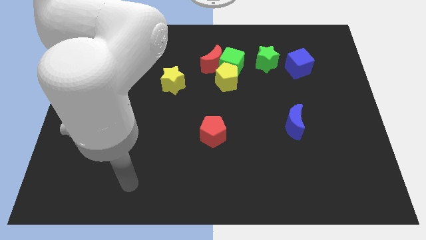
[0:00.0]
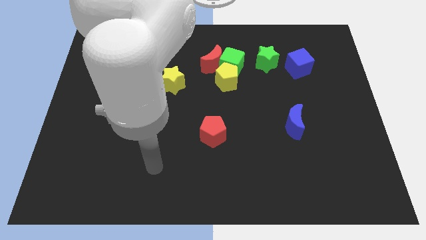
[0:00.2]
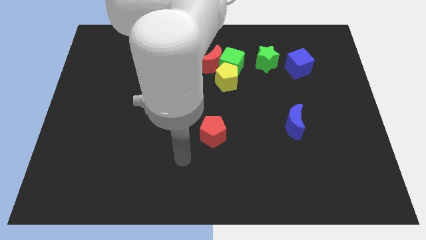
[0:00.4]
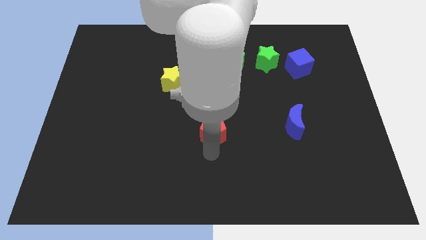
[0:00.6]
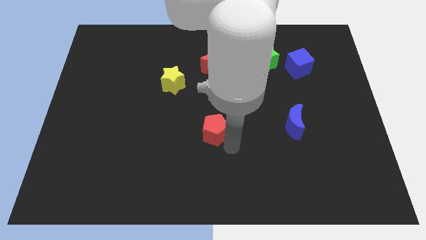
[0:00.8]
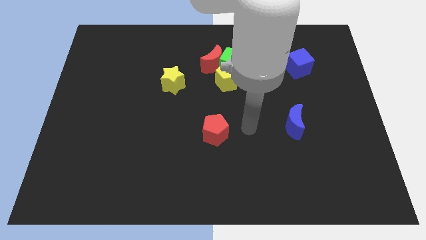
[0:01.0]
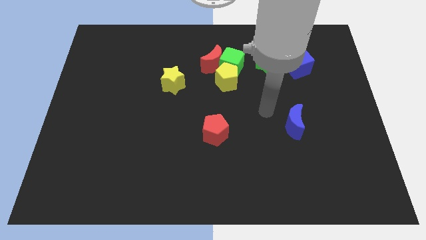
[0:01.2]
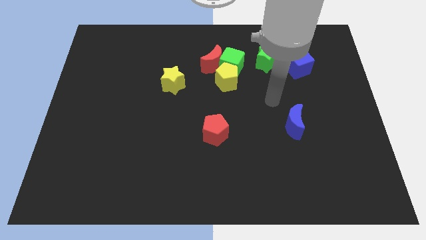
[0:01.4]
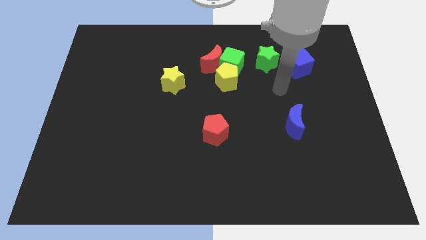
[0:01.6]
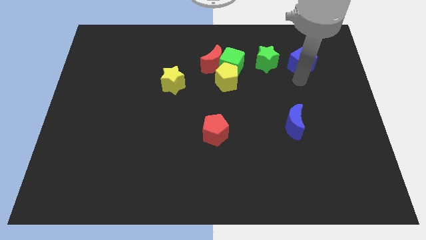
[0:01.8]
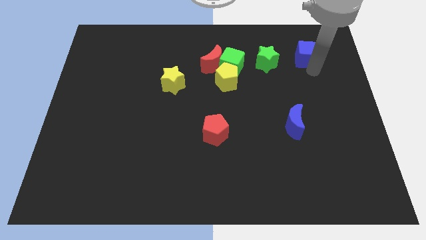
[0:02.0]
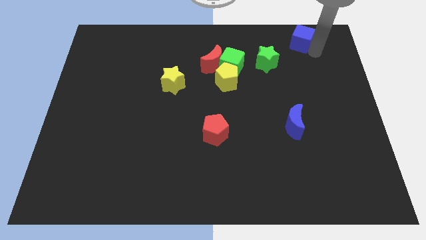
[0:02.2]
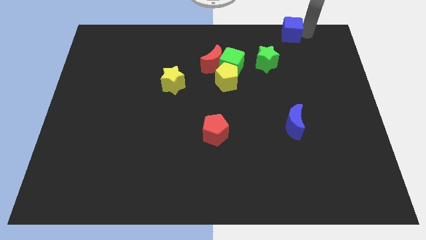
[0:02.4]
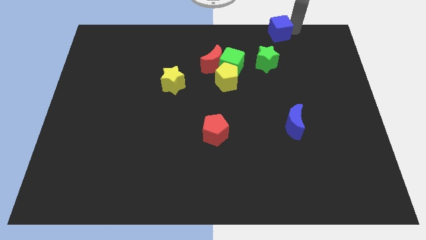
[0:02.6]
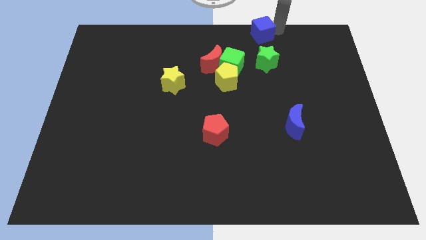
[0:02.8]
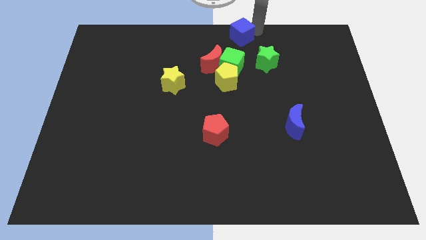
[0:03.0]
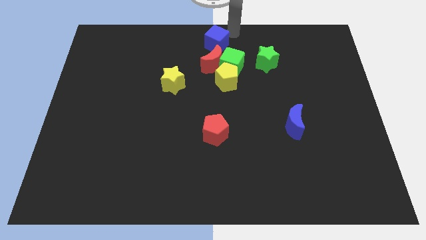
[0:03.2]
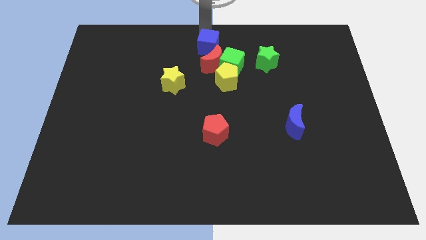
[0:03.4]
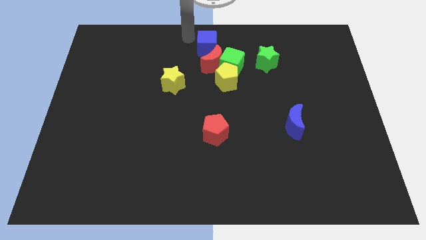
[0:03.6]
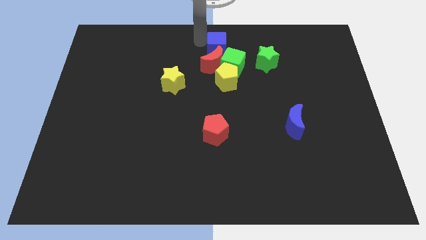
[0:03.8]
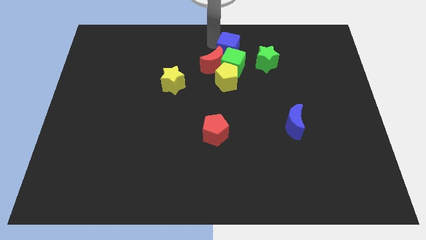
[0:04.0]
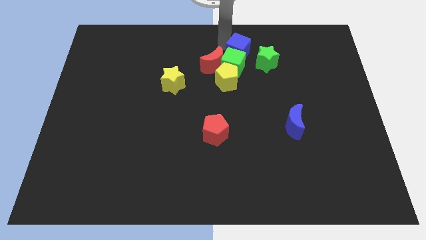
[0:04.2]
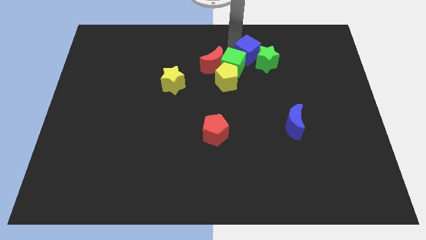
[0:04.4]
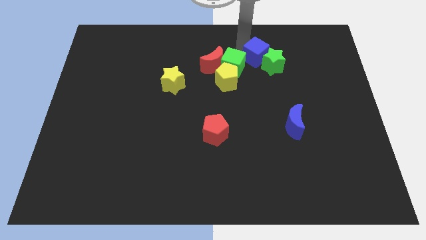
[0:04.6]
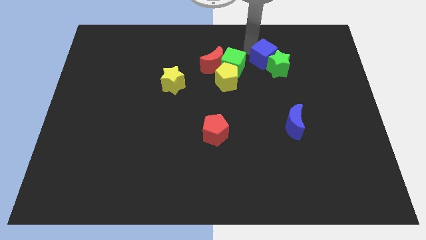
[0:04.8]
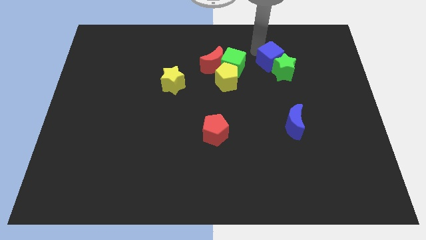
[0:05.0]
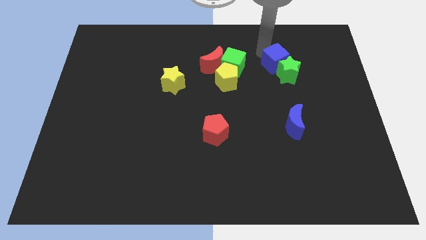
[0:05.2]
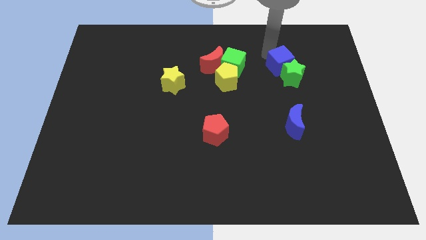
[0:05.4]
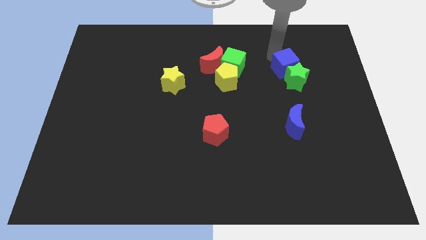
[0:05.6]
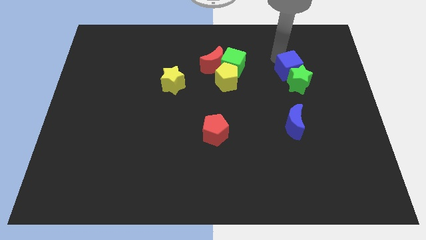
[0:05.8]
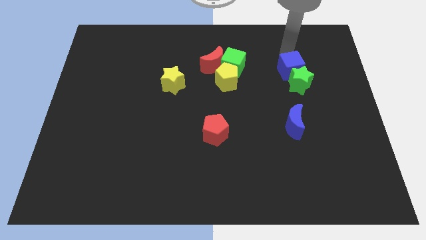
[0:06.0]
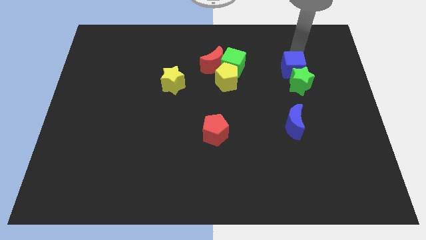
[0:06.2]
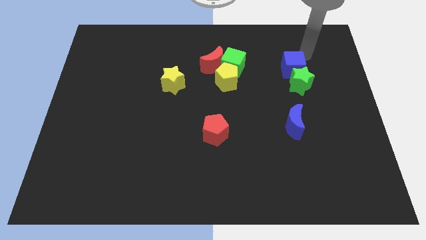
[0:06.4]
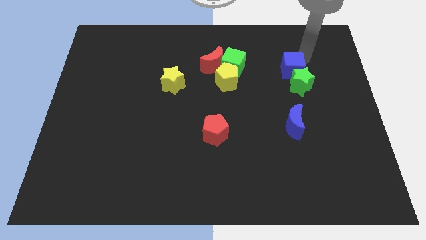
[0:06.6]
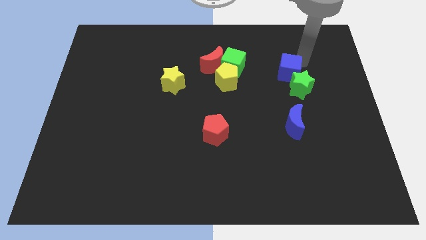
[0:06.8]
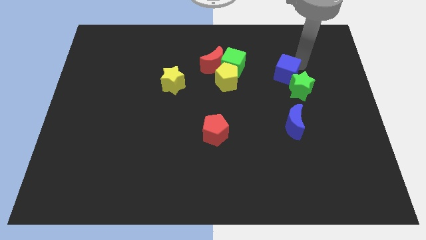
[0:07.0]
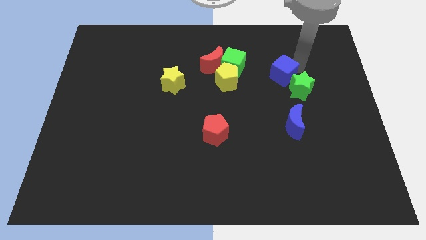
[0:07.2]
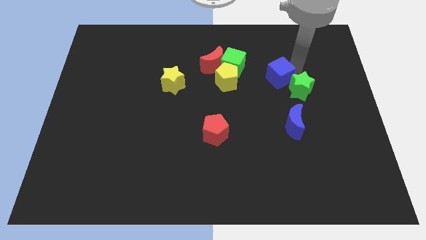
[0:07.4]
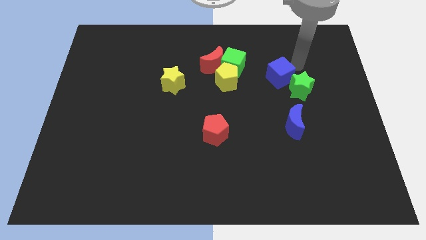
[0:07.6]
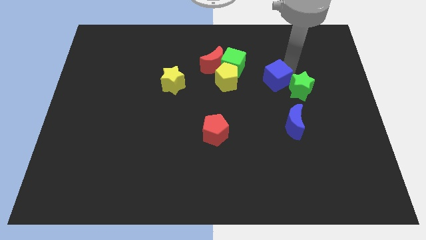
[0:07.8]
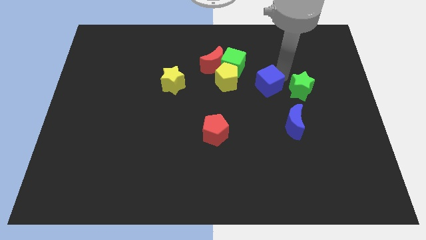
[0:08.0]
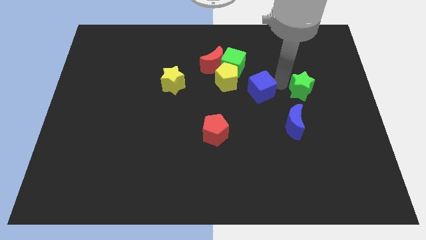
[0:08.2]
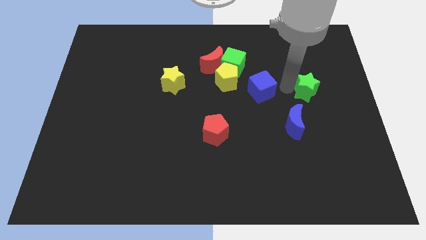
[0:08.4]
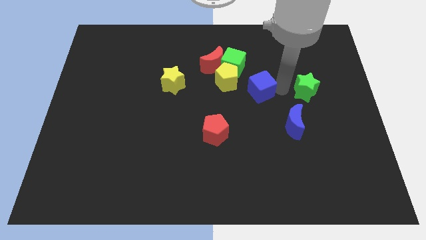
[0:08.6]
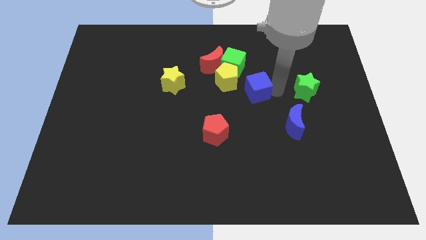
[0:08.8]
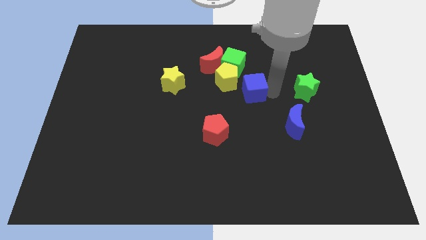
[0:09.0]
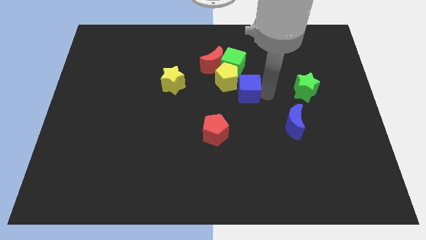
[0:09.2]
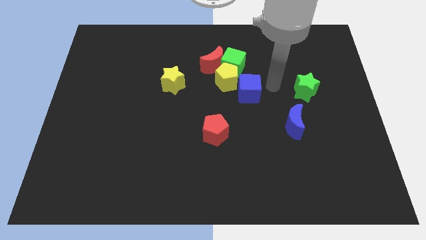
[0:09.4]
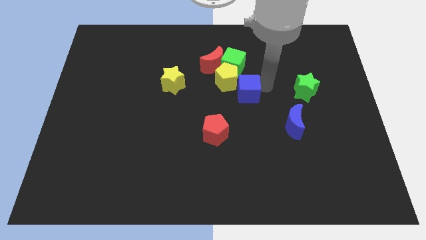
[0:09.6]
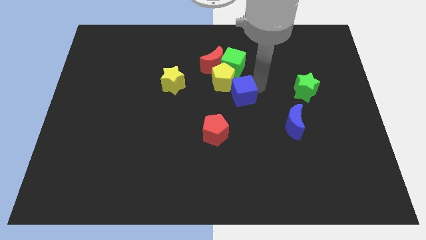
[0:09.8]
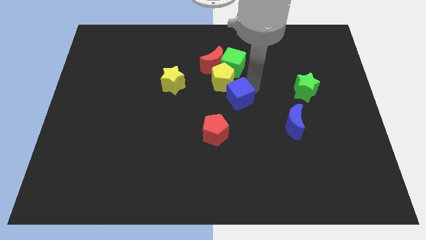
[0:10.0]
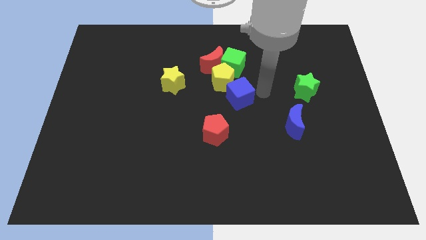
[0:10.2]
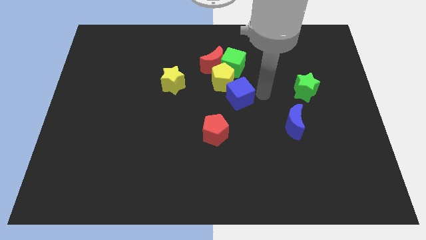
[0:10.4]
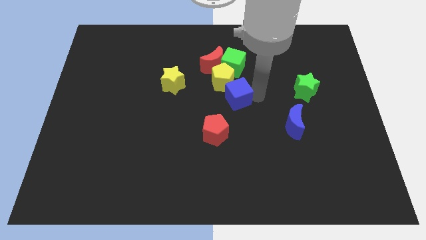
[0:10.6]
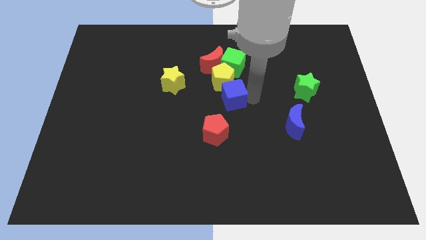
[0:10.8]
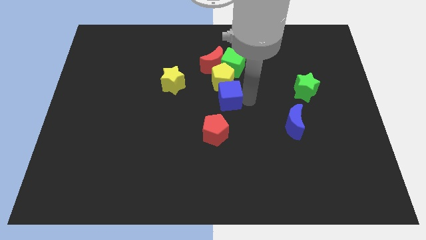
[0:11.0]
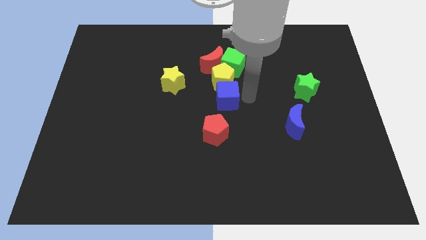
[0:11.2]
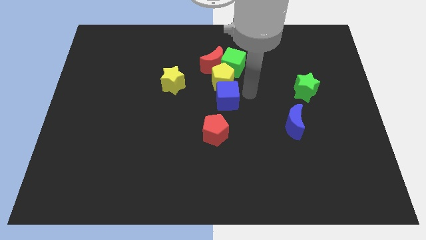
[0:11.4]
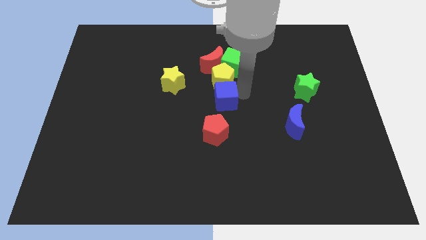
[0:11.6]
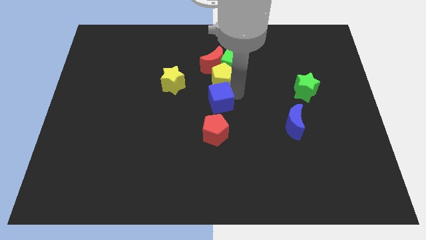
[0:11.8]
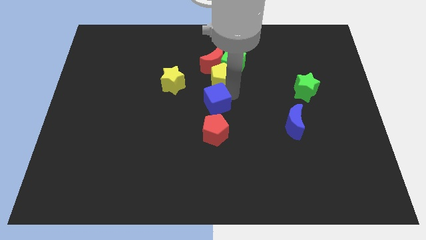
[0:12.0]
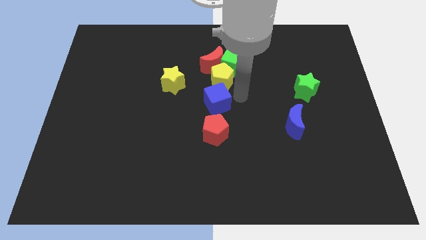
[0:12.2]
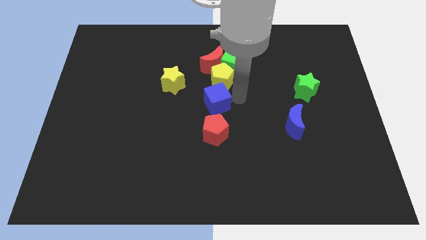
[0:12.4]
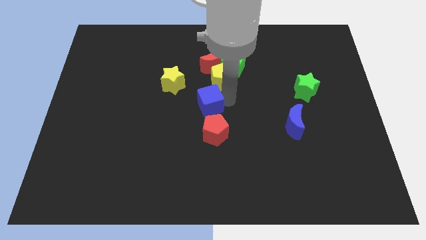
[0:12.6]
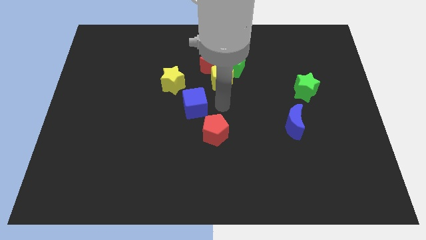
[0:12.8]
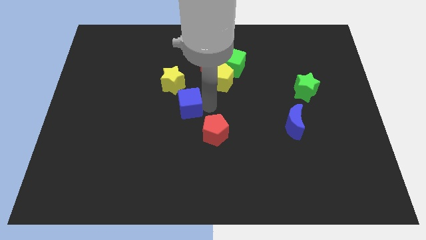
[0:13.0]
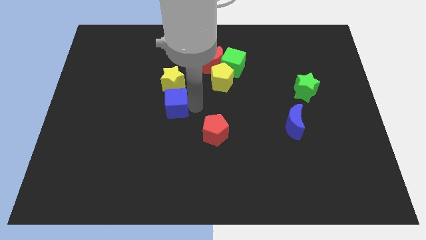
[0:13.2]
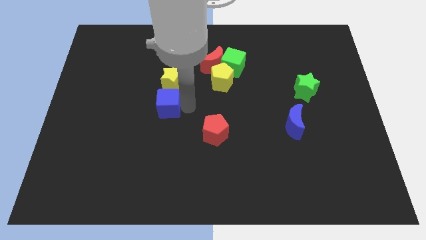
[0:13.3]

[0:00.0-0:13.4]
move the blue cube to the bottom left side of the yellow star

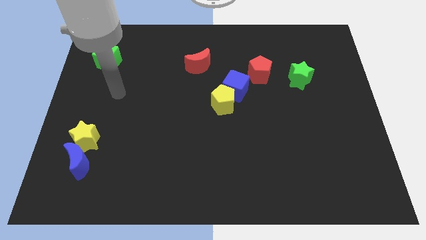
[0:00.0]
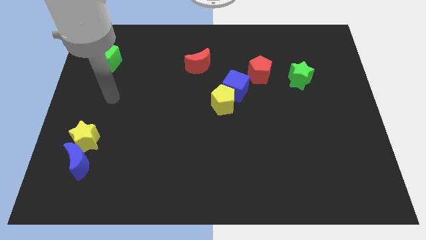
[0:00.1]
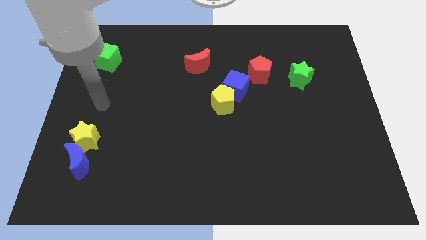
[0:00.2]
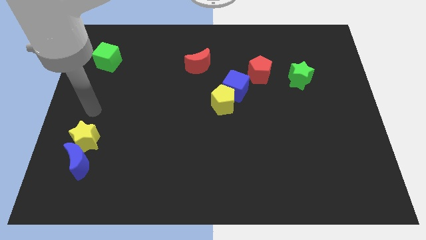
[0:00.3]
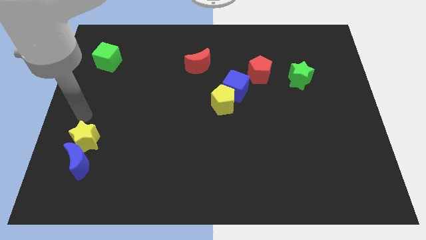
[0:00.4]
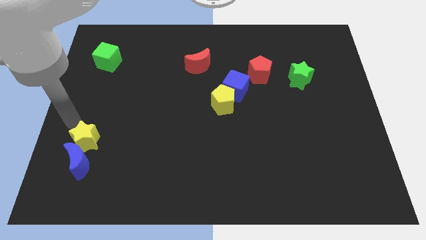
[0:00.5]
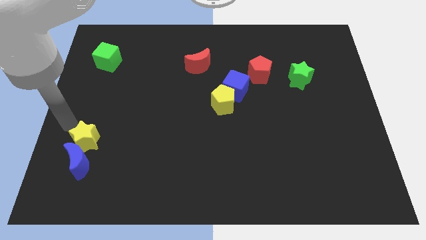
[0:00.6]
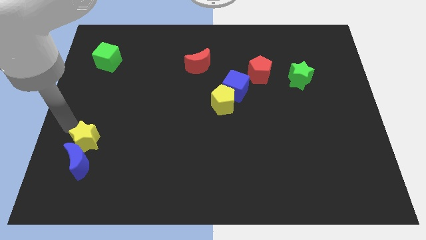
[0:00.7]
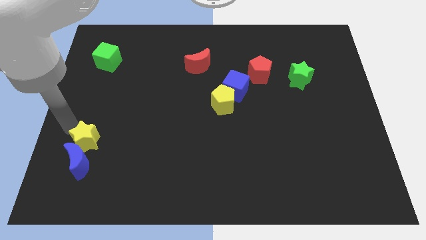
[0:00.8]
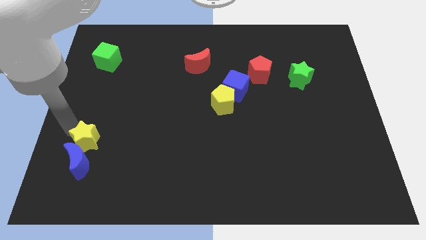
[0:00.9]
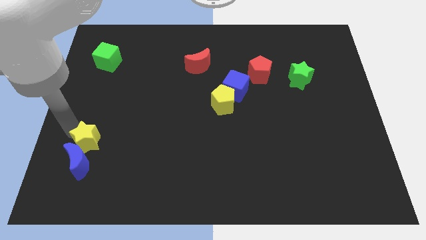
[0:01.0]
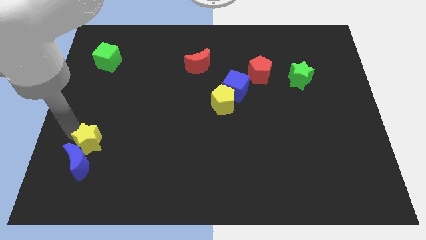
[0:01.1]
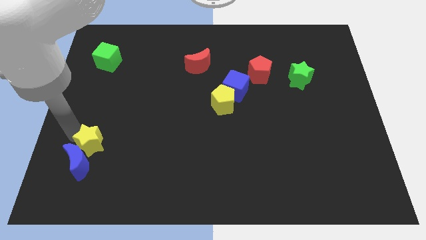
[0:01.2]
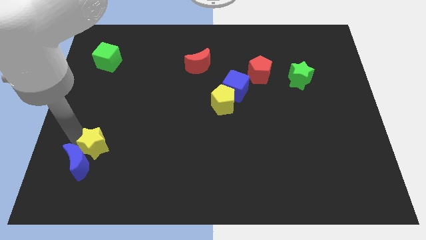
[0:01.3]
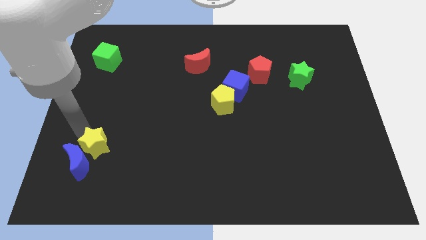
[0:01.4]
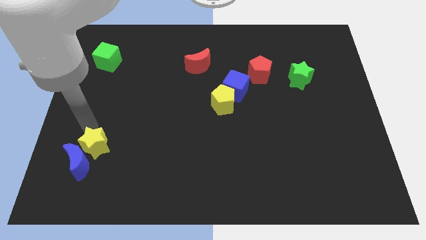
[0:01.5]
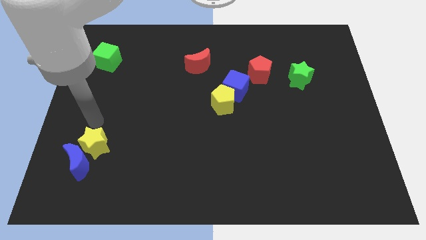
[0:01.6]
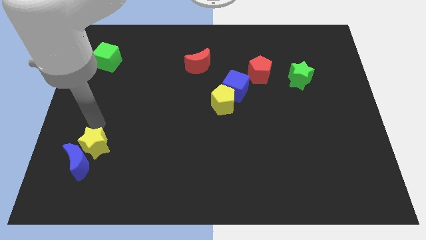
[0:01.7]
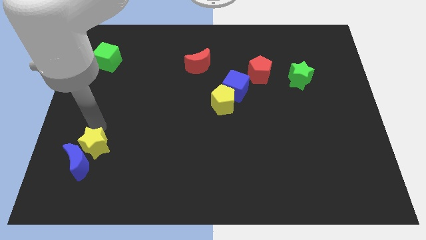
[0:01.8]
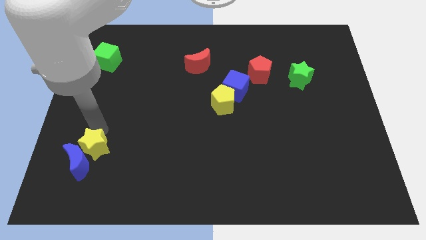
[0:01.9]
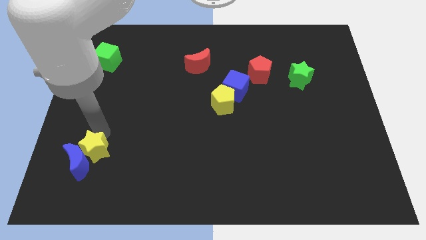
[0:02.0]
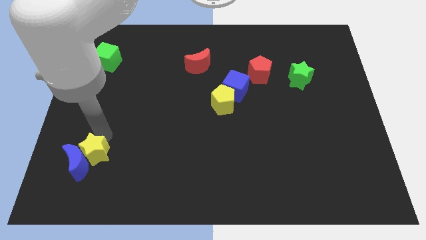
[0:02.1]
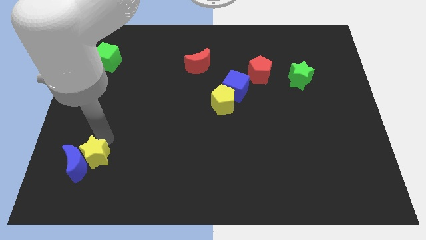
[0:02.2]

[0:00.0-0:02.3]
move the yellow star diagonally down and to the right of the blue moon
